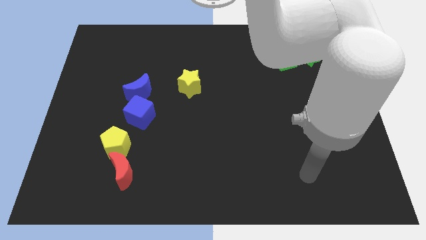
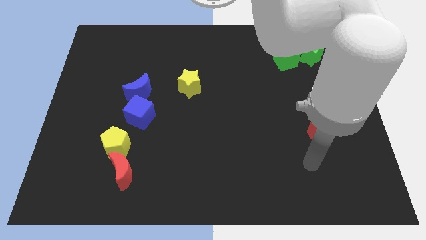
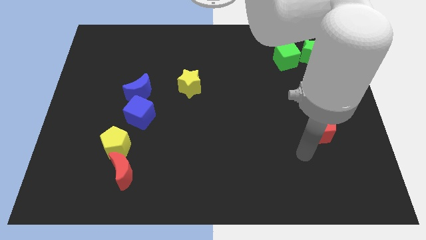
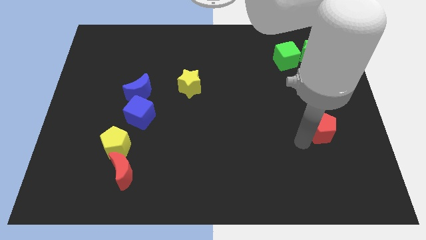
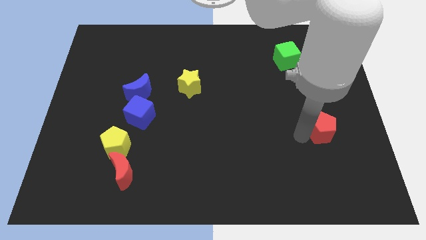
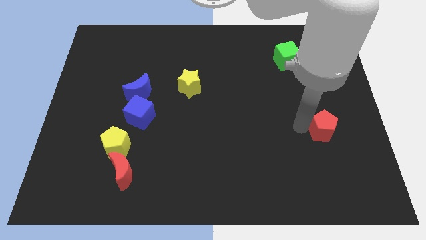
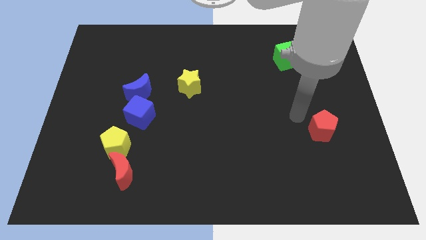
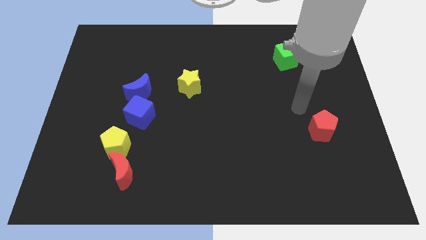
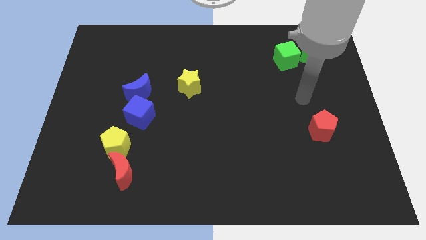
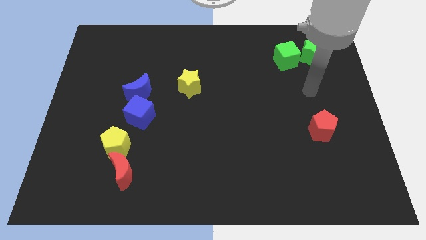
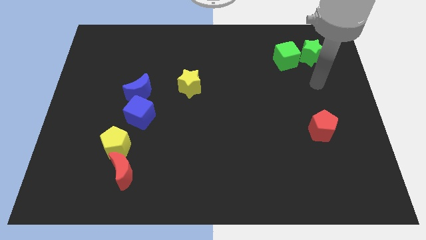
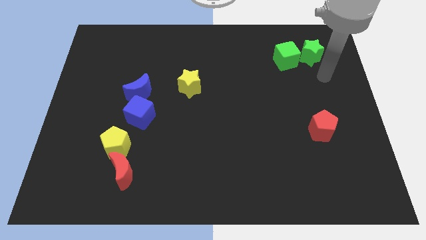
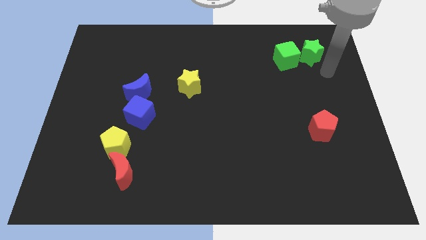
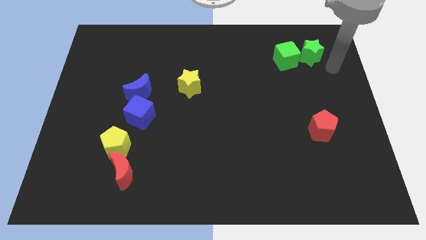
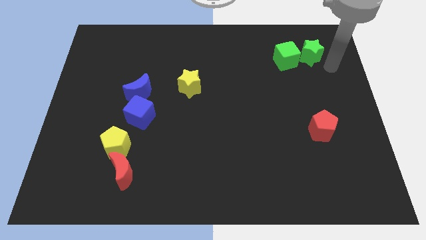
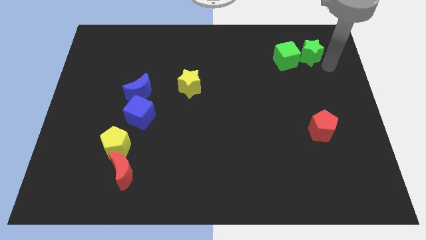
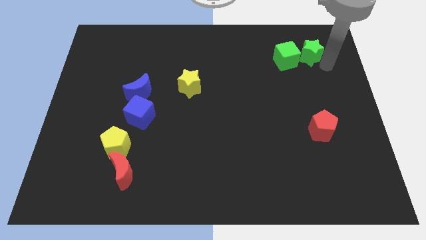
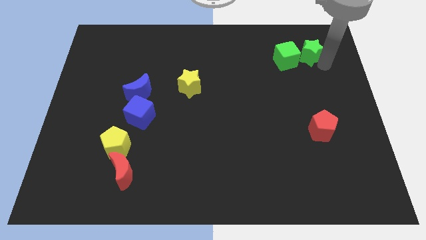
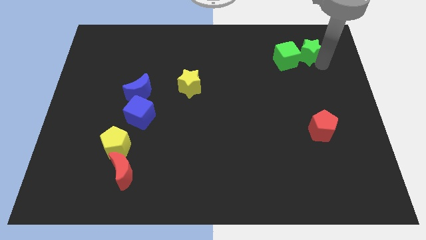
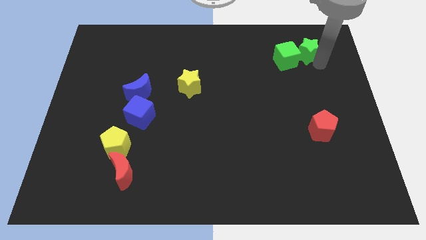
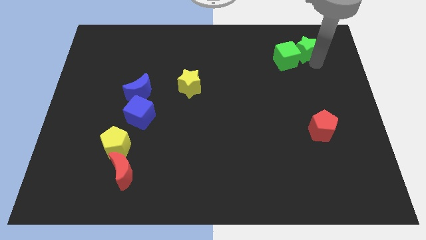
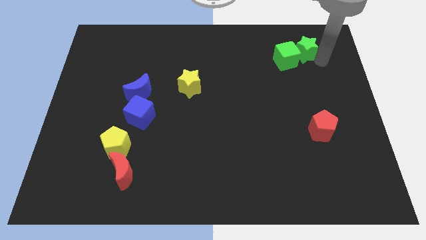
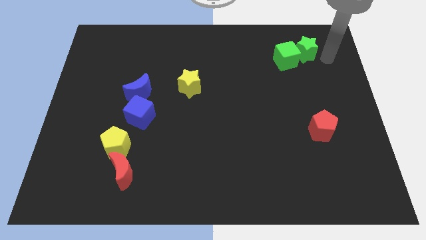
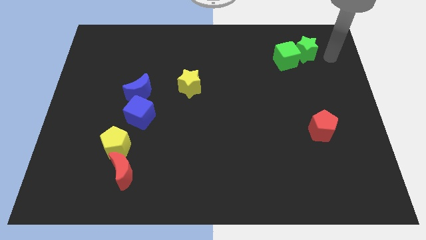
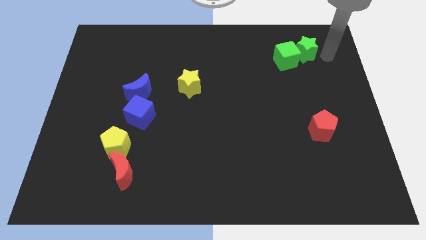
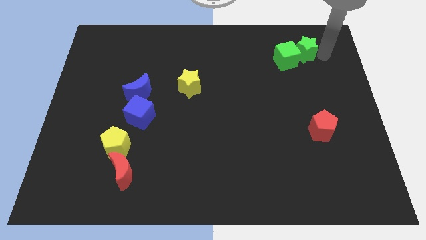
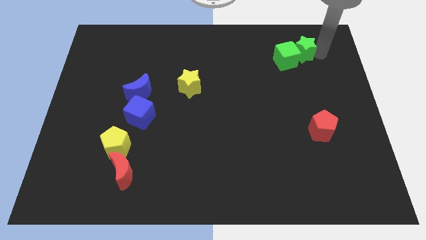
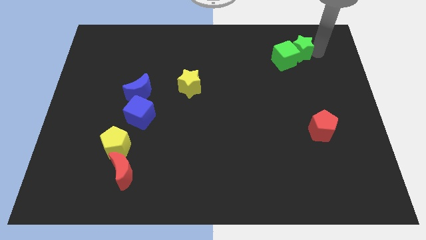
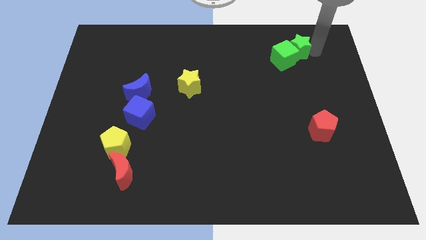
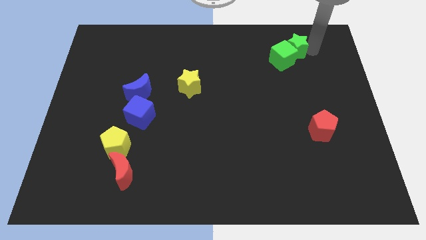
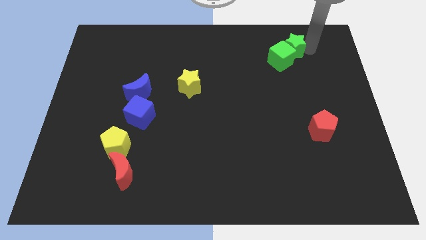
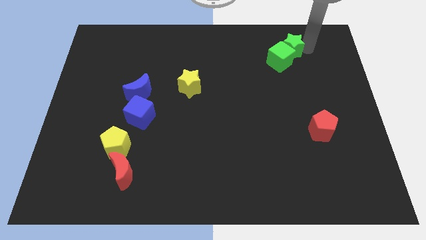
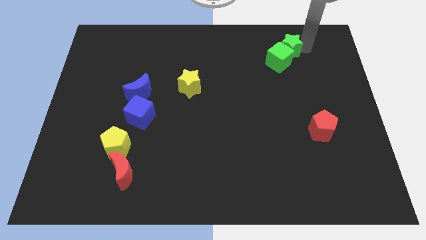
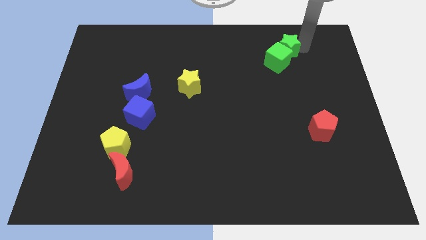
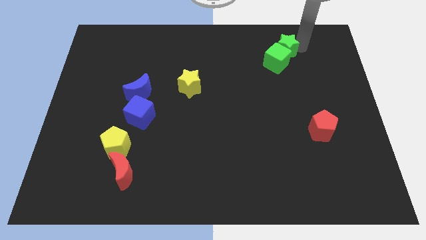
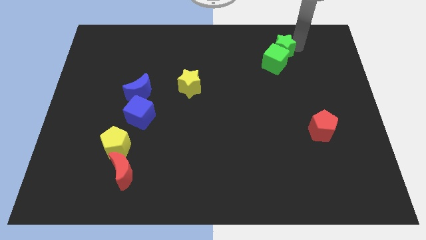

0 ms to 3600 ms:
slightly push the green star to the left

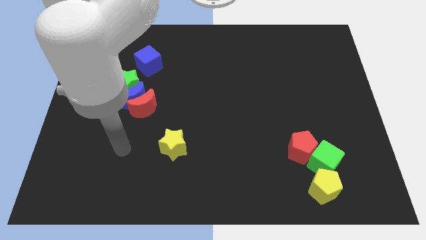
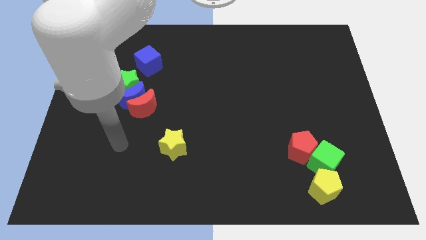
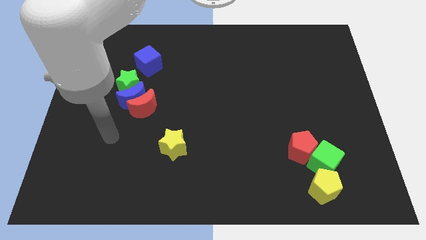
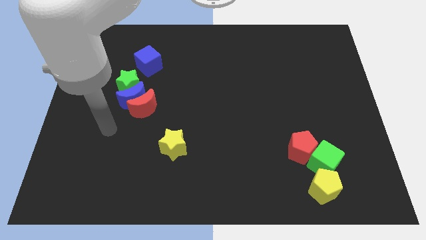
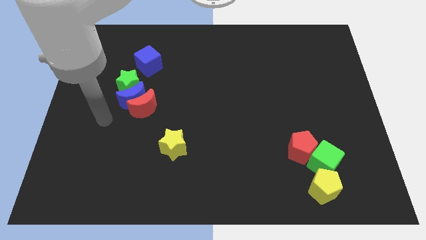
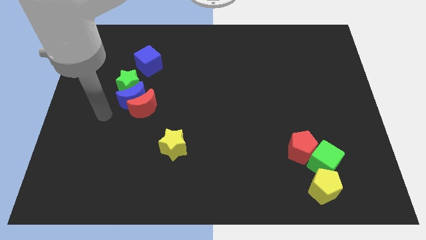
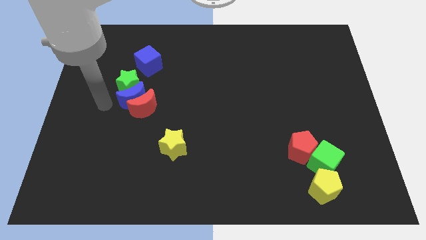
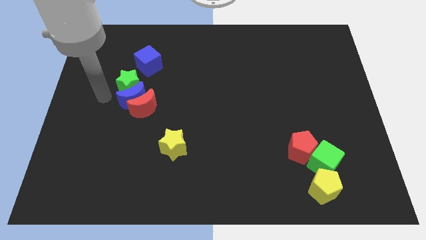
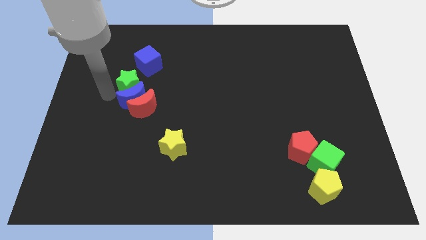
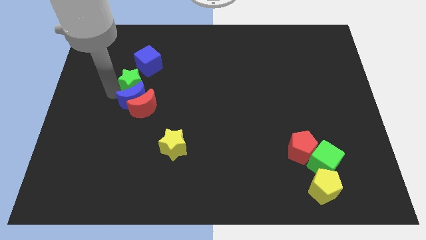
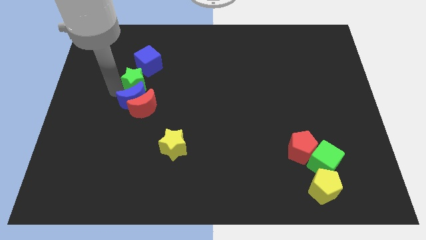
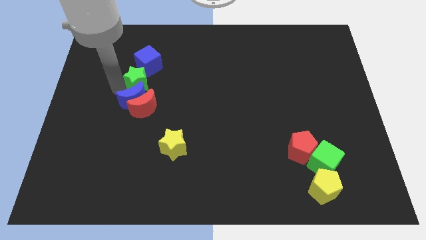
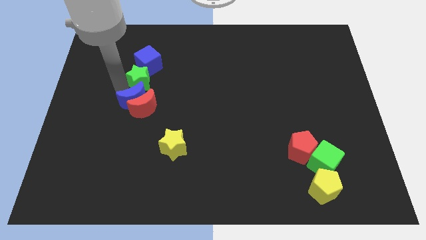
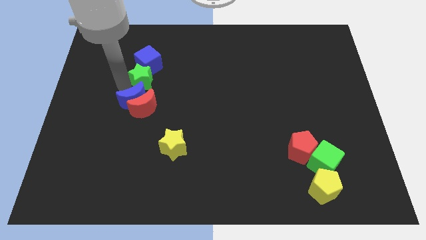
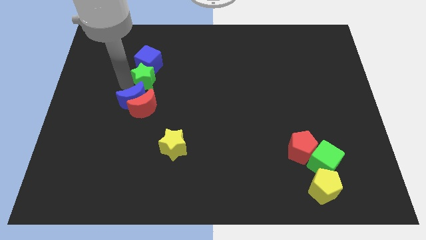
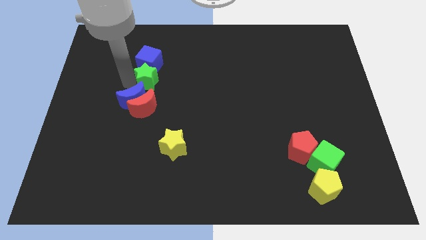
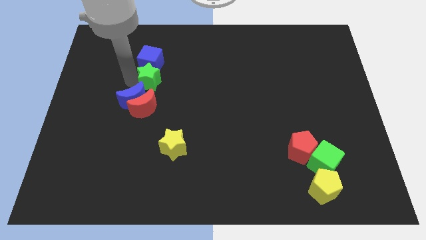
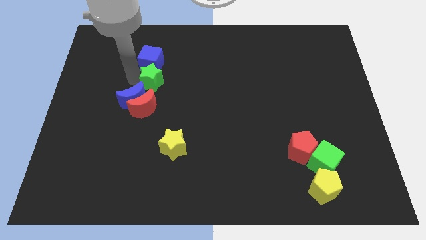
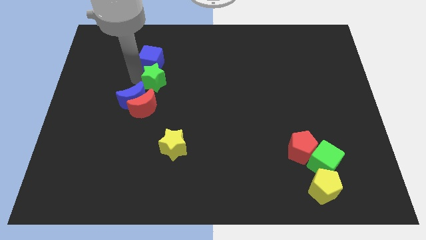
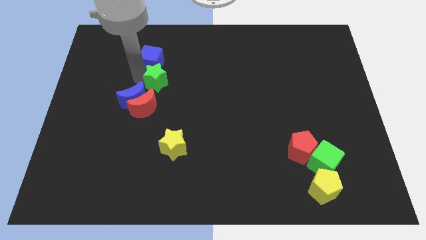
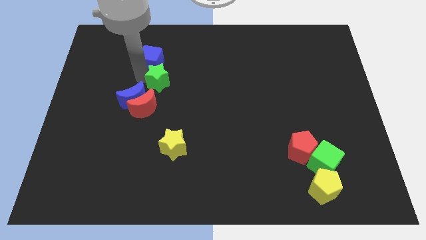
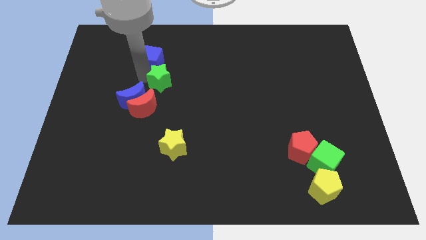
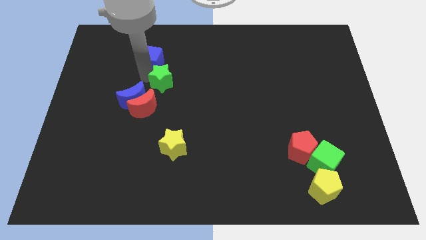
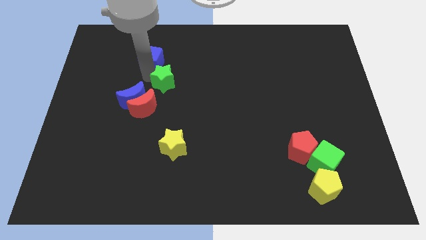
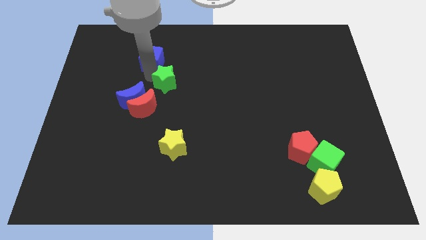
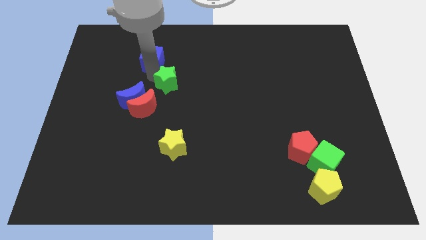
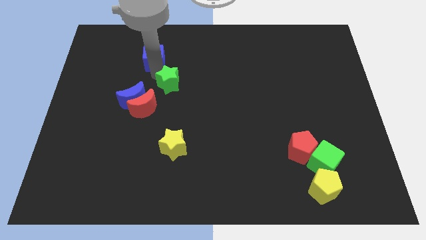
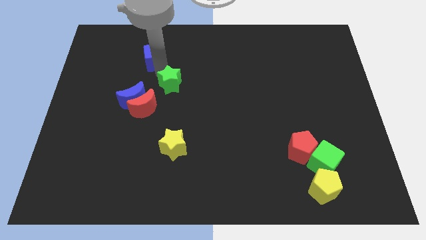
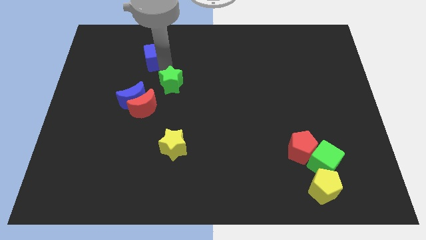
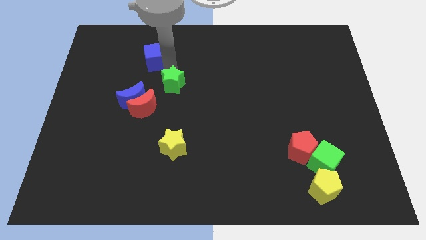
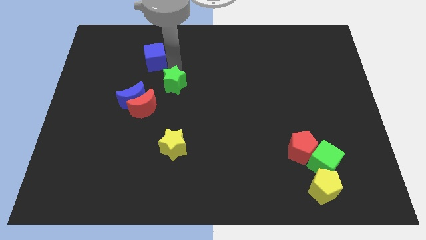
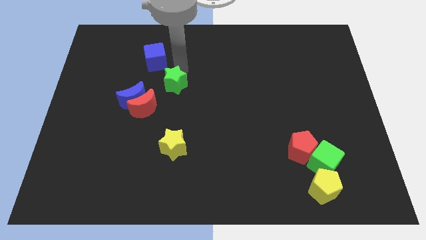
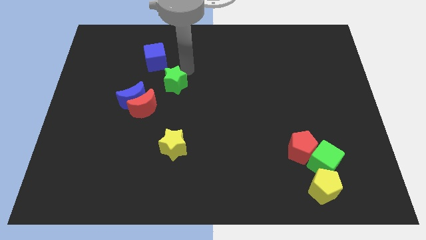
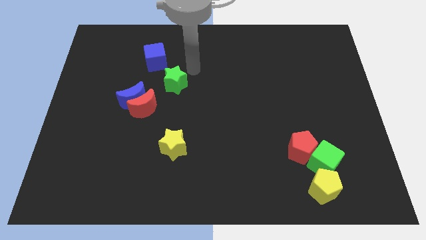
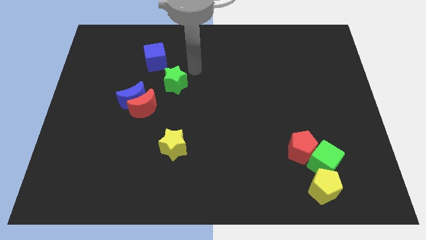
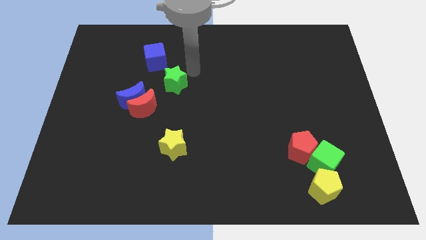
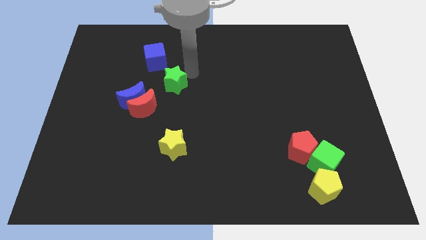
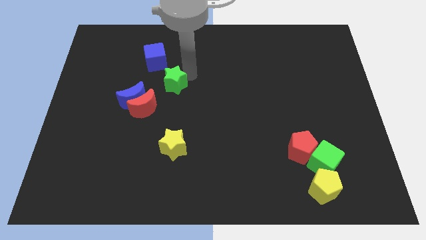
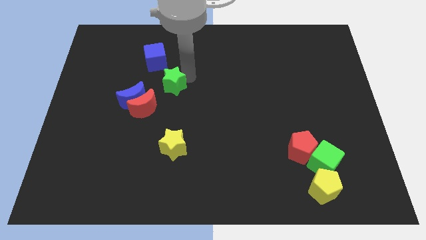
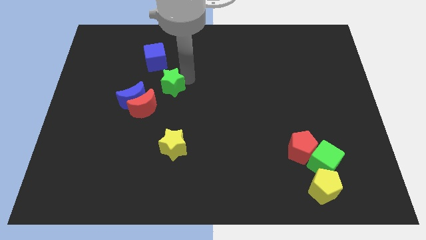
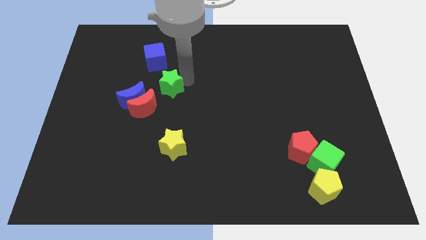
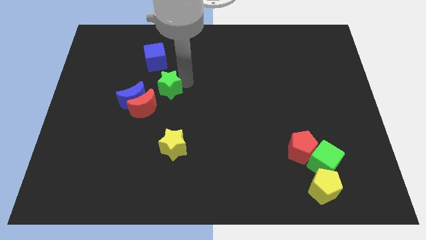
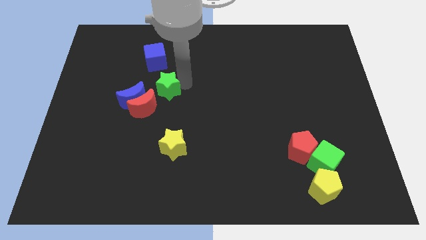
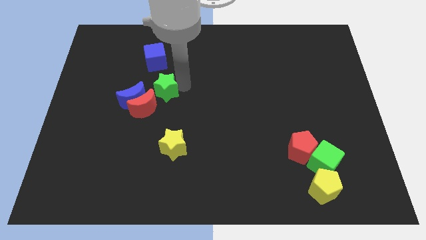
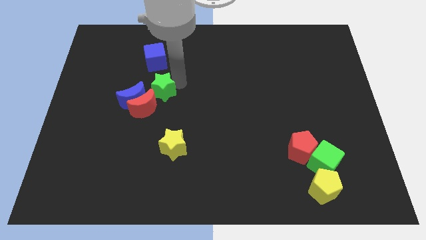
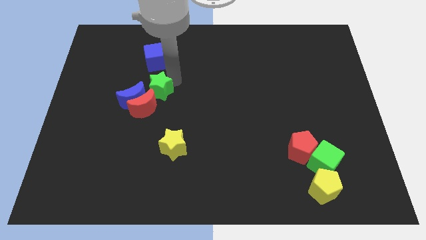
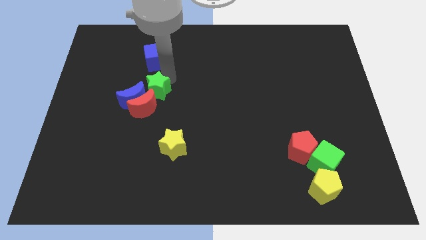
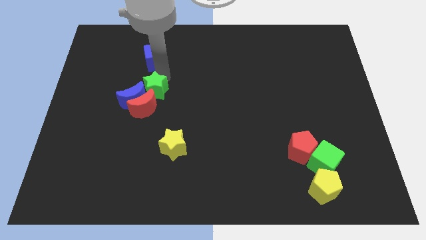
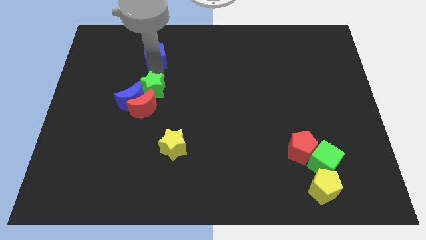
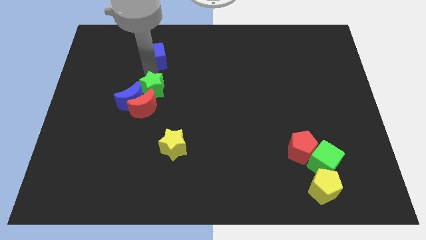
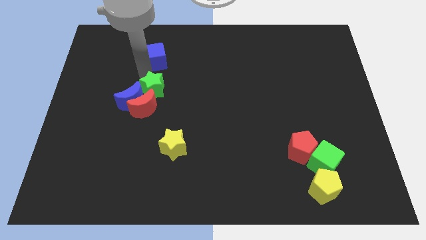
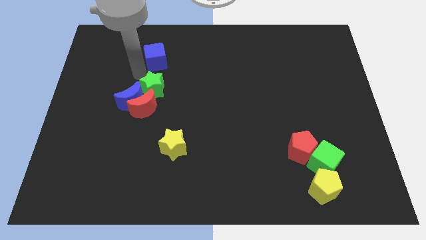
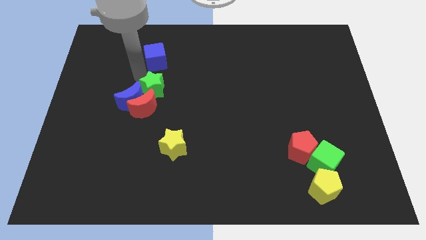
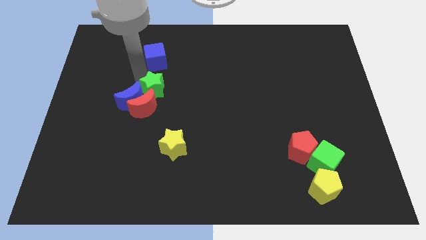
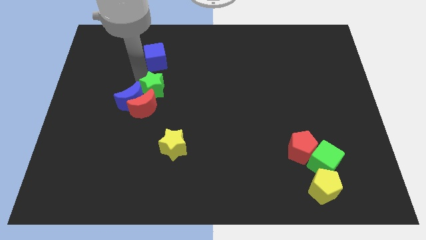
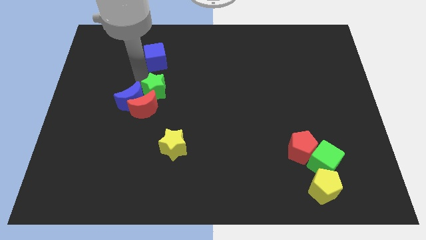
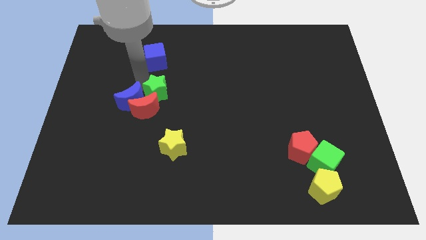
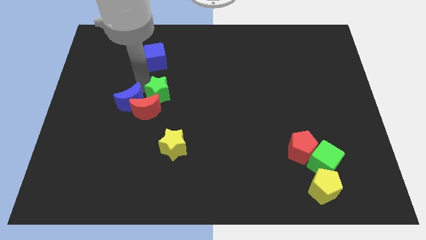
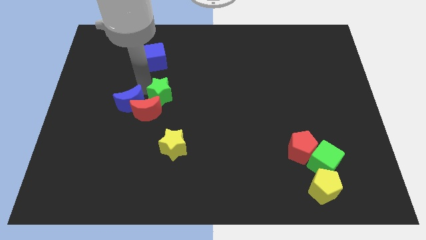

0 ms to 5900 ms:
move the green star a little downwards and right diagonally
